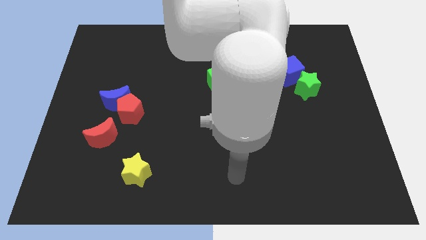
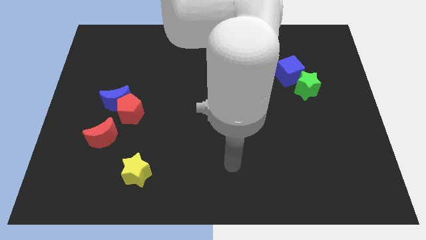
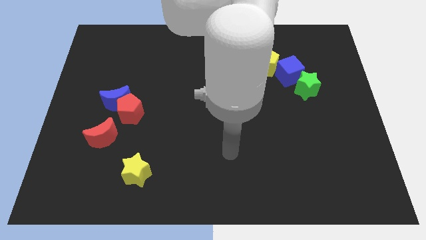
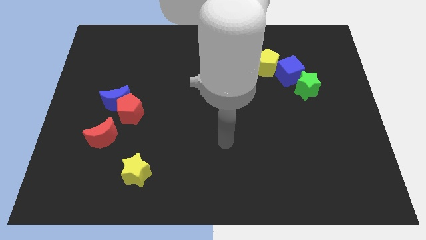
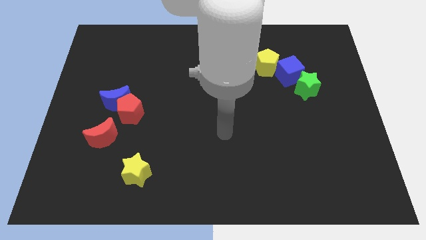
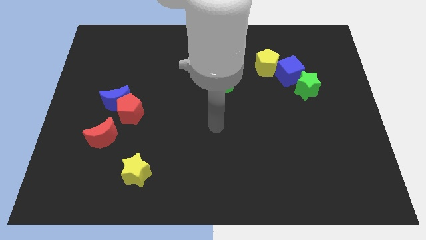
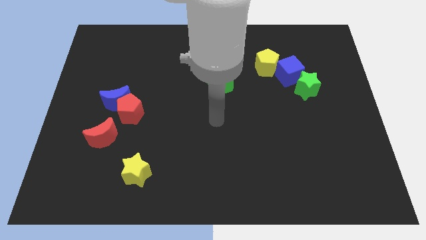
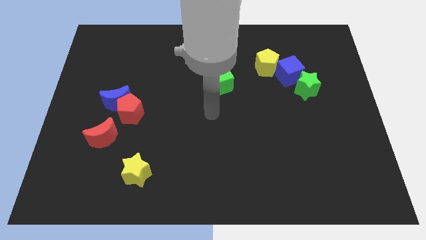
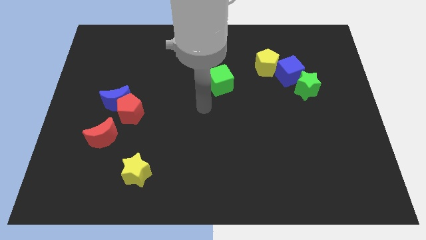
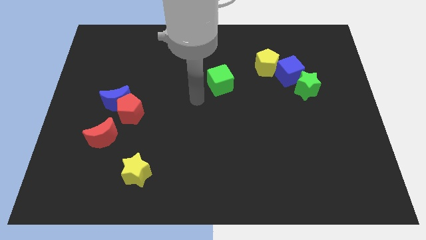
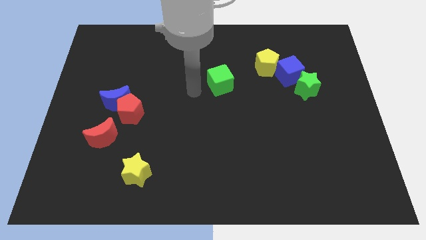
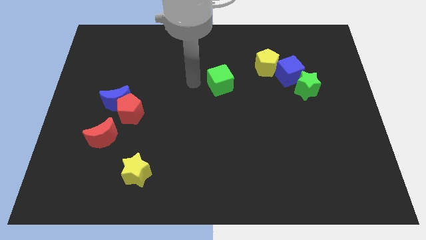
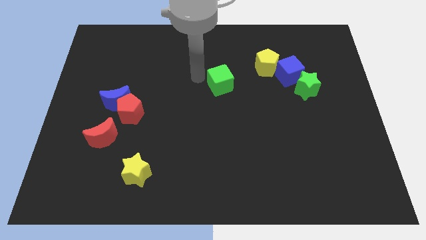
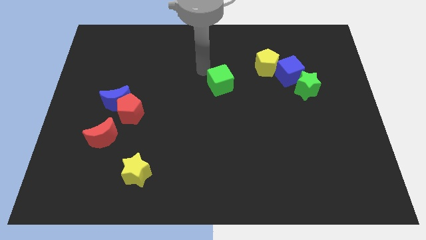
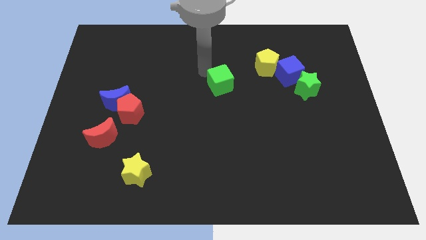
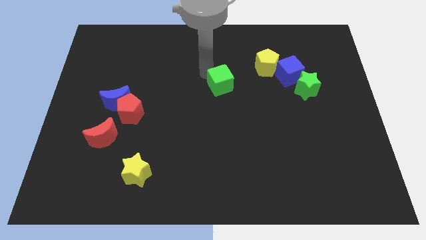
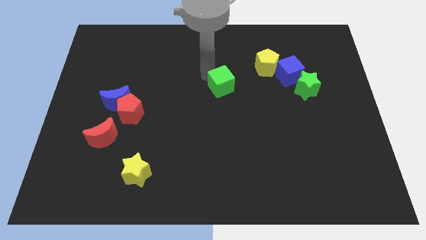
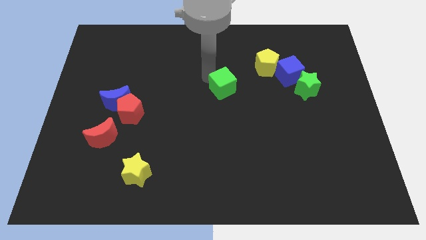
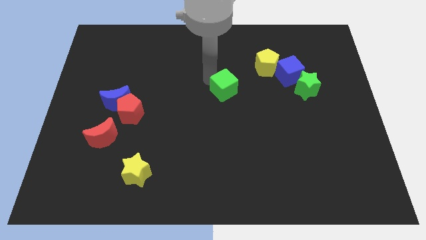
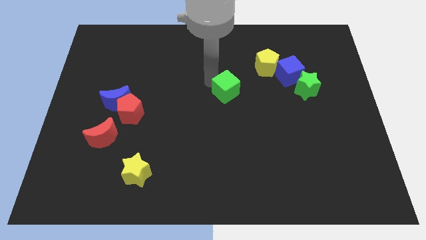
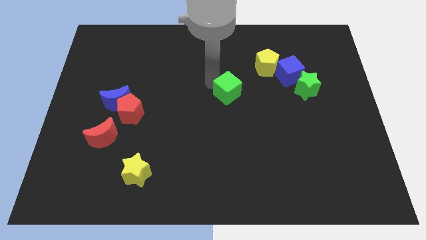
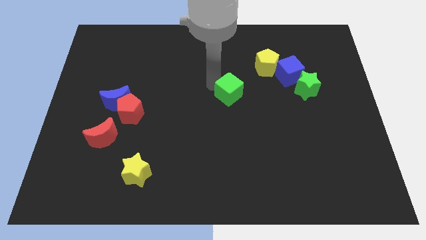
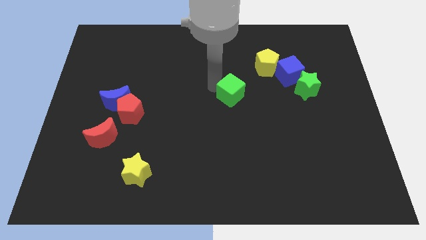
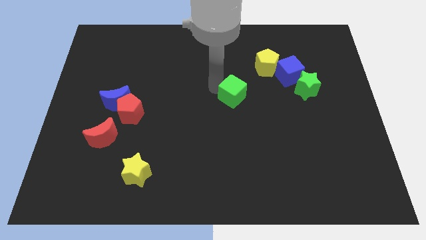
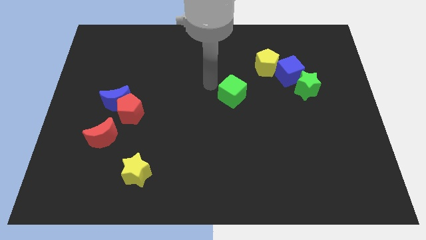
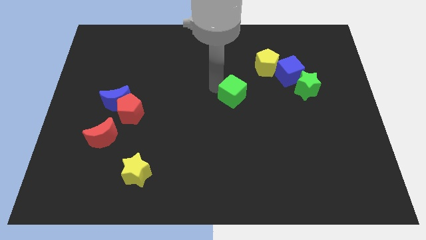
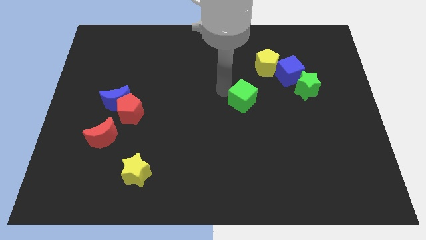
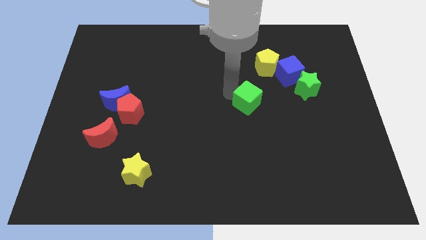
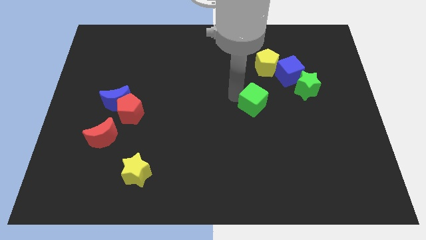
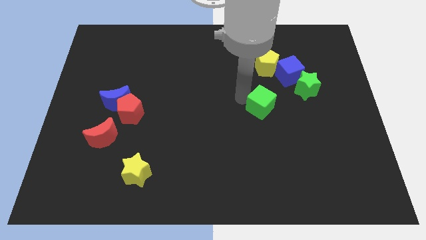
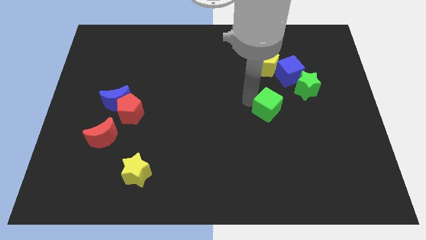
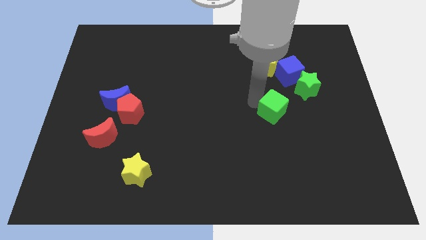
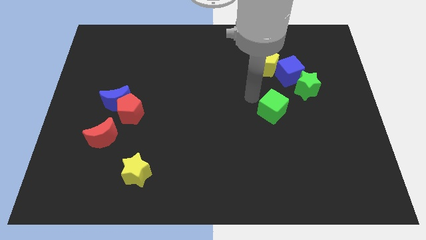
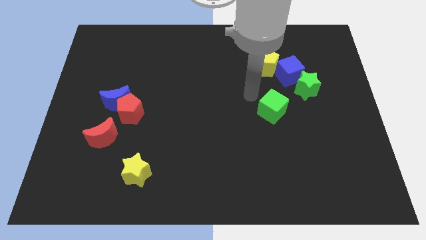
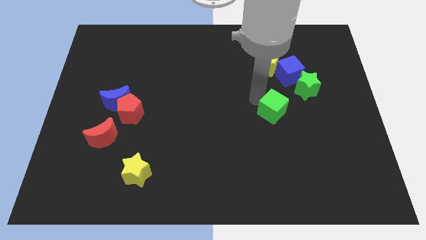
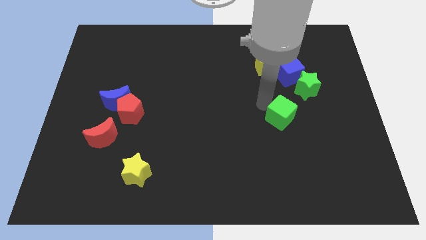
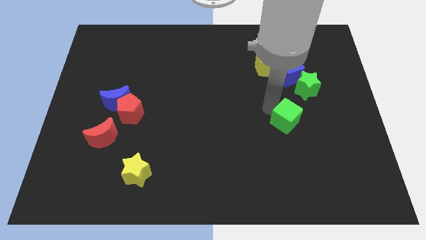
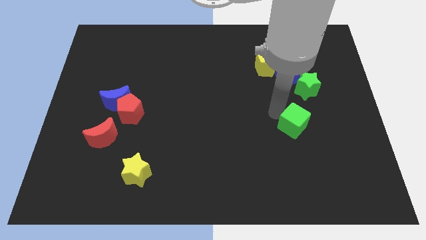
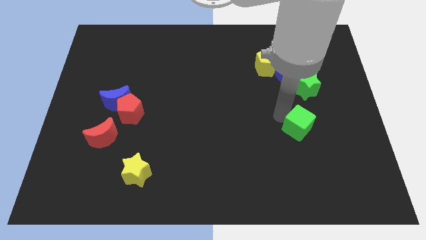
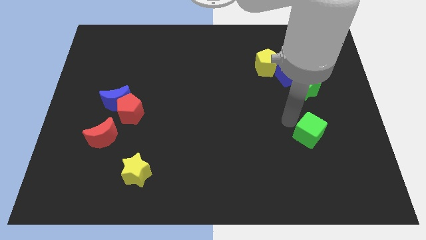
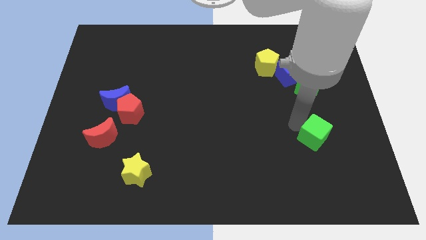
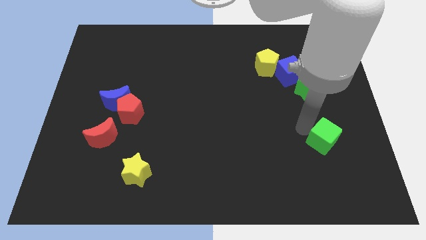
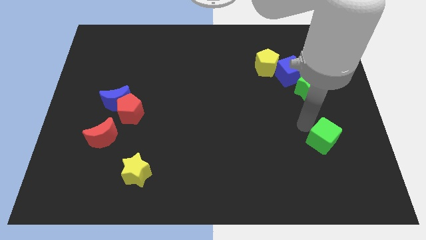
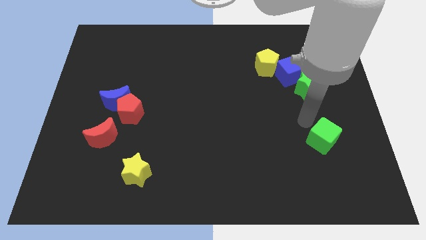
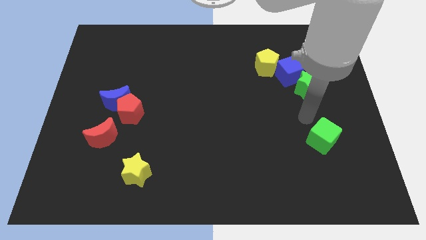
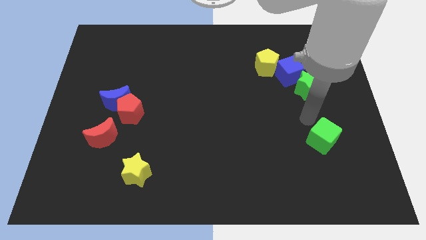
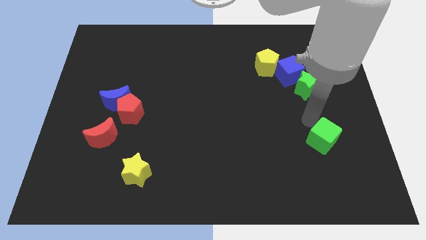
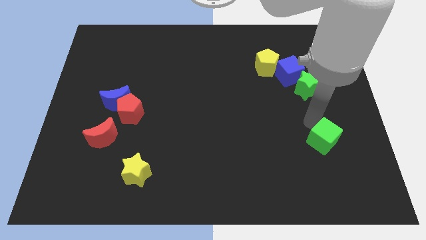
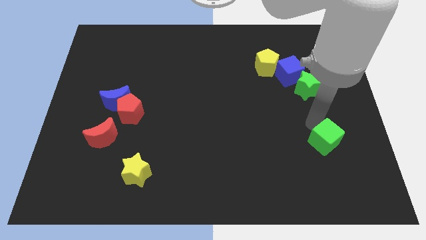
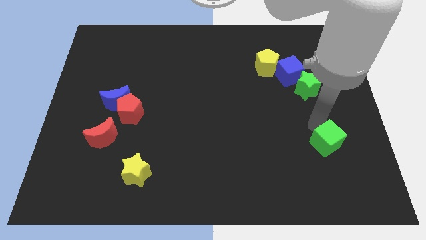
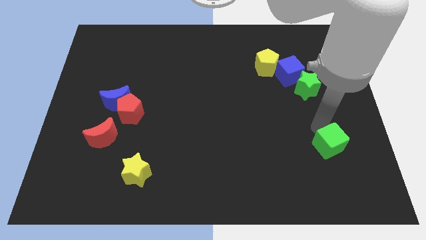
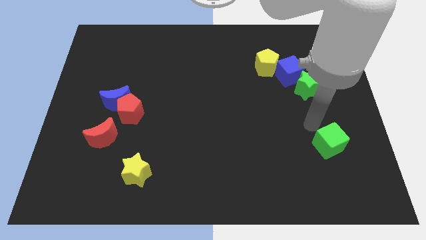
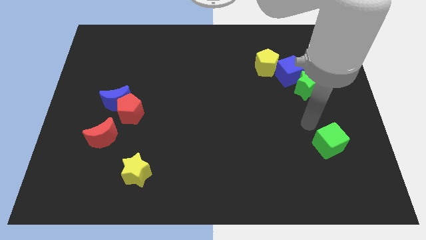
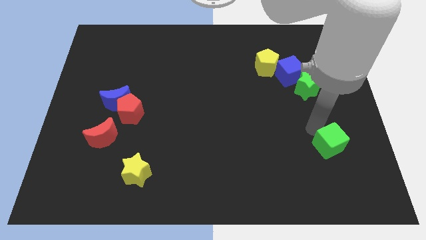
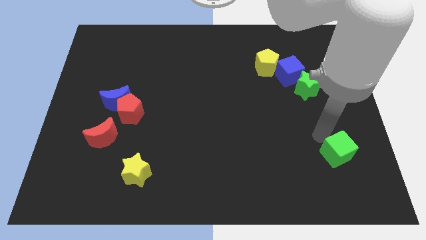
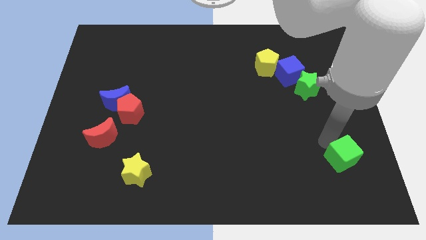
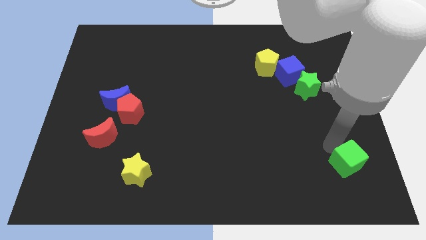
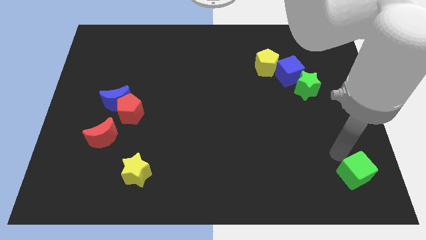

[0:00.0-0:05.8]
push the green cube to the lower right corner

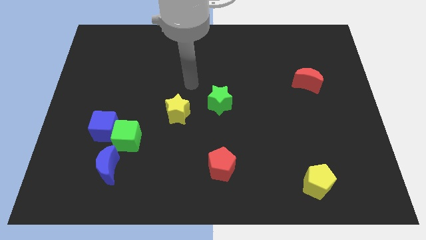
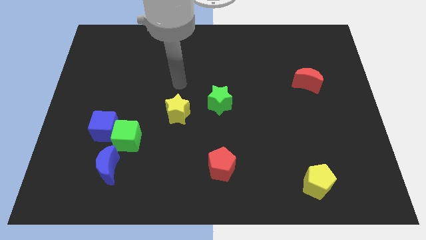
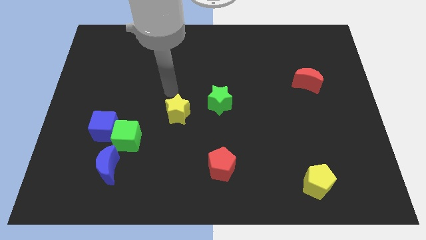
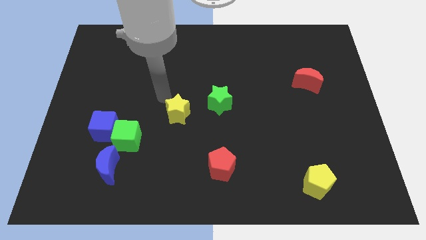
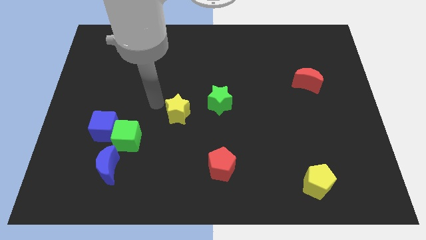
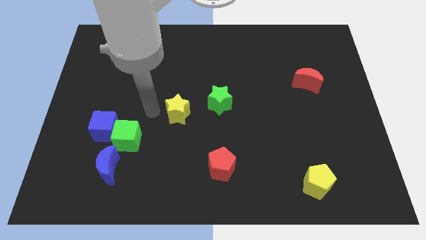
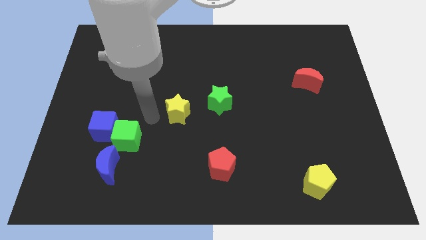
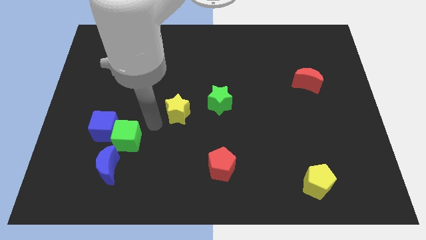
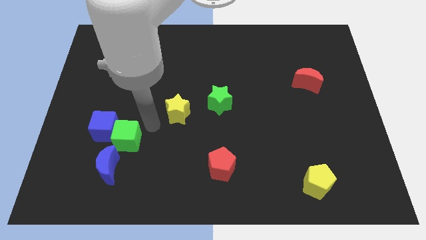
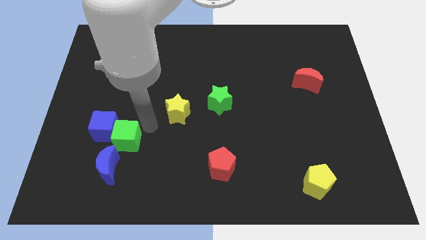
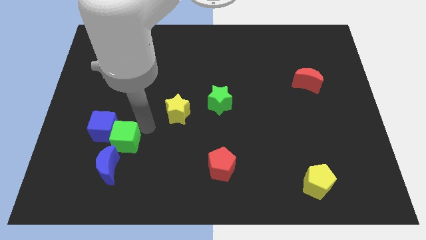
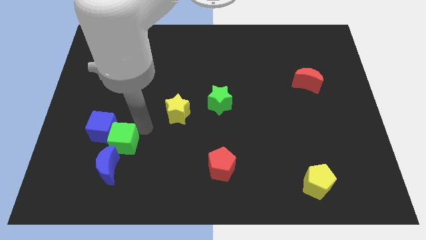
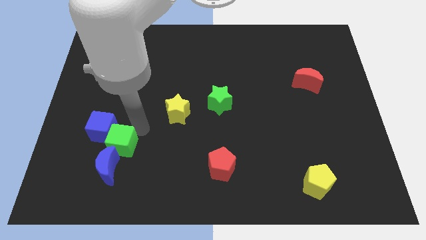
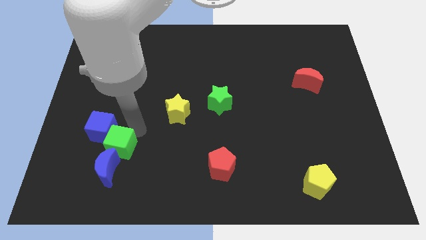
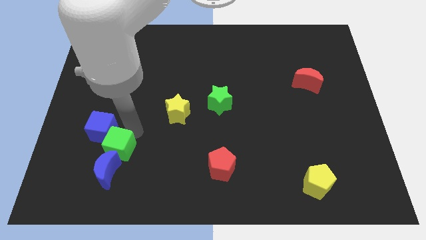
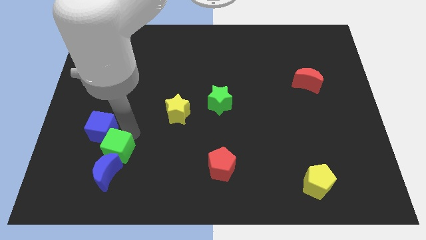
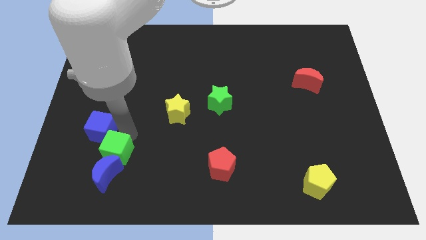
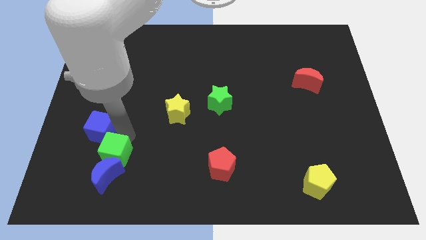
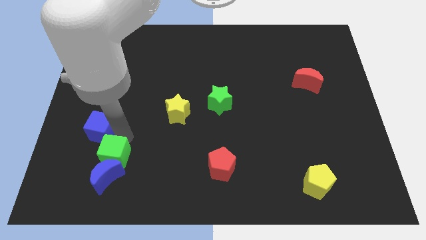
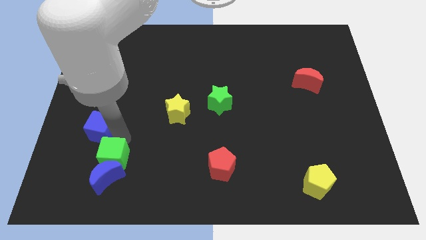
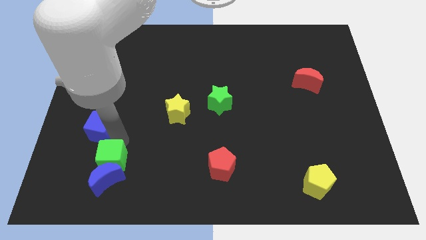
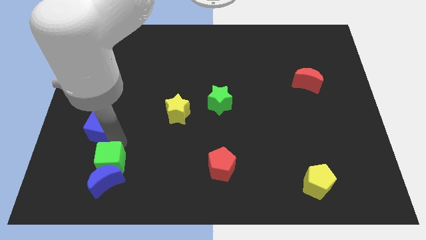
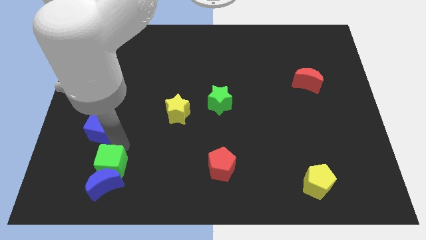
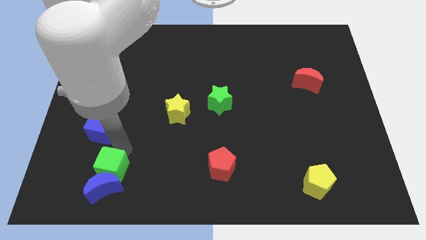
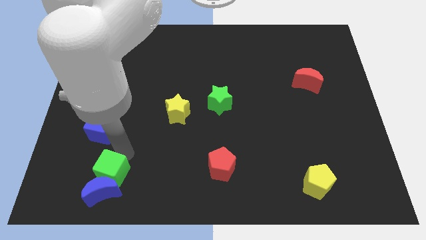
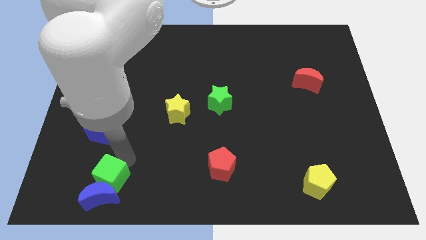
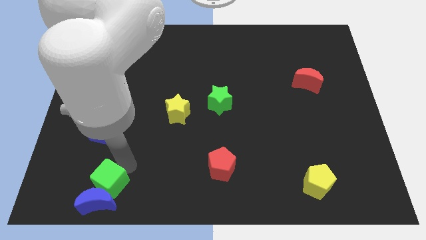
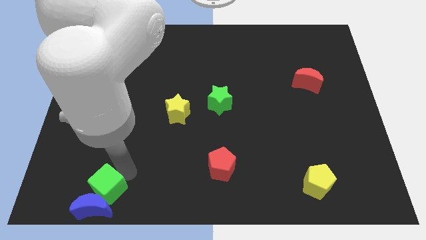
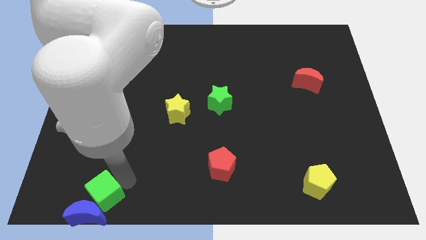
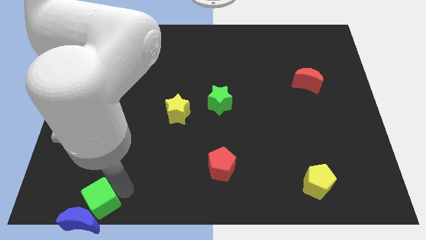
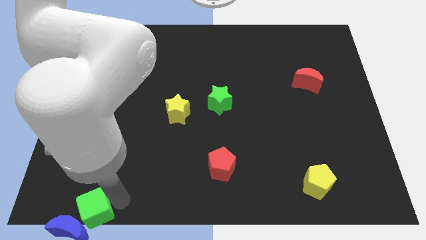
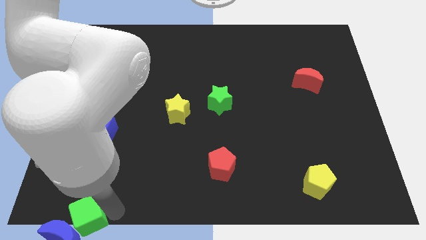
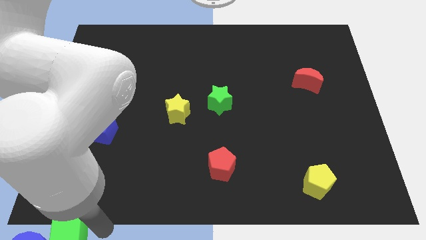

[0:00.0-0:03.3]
put the green cube to the bottom left of the board
